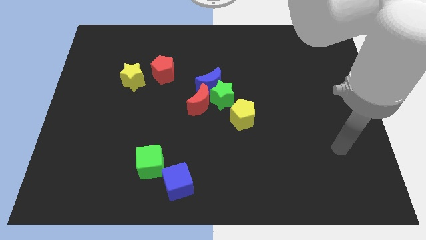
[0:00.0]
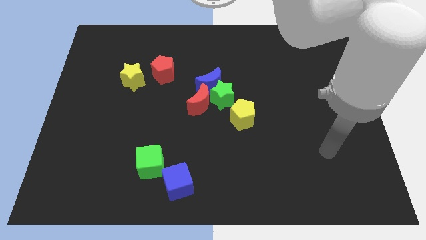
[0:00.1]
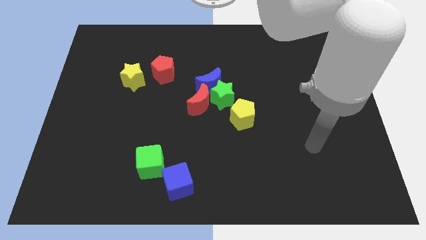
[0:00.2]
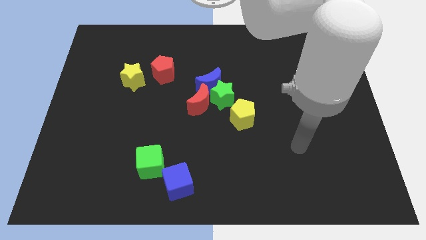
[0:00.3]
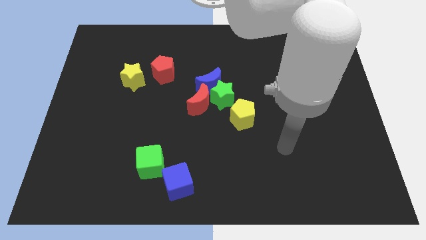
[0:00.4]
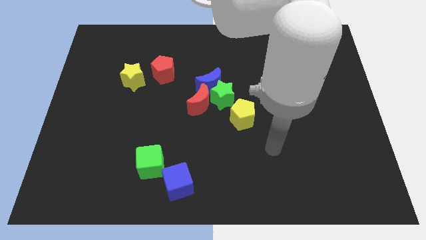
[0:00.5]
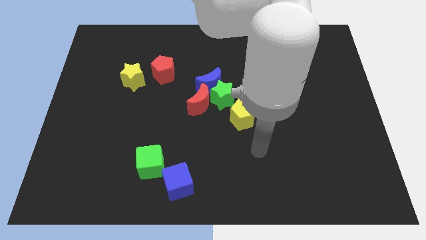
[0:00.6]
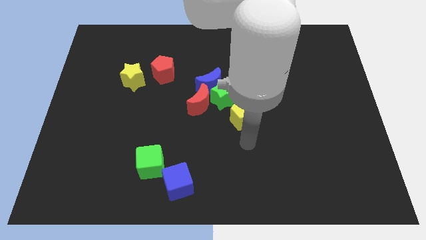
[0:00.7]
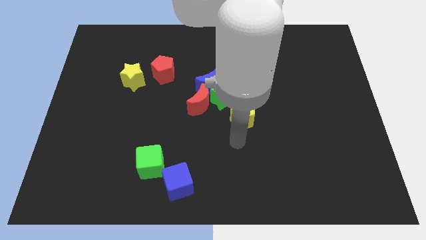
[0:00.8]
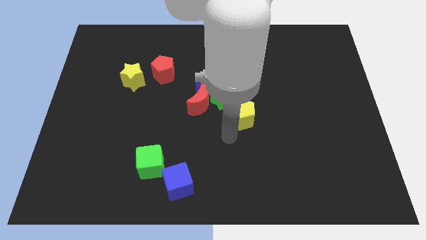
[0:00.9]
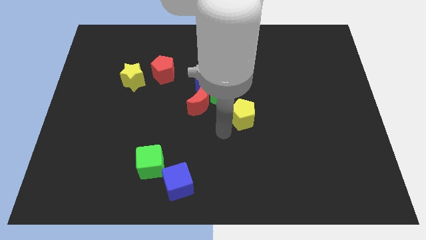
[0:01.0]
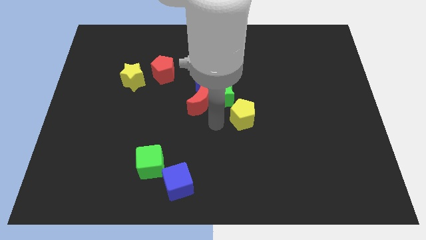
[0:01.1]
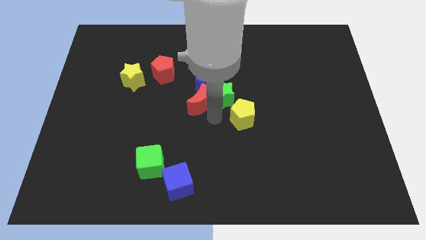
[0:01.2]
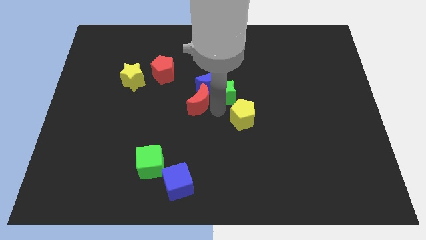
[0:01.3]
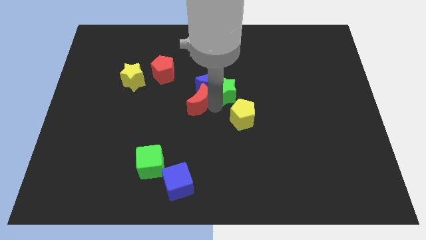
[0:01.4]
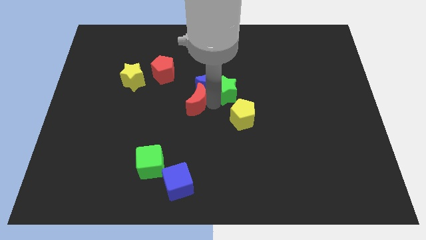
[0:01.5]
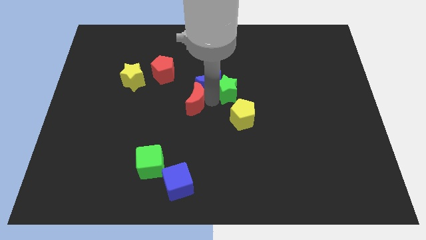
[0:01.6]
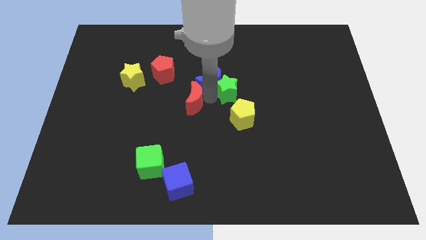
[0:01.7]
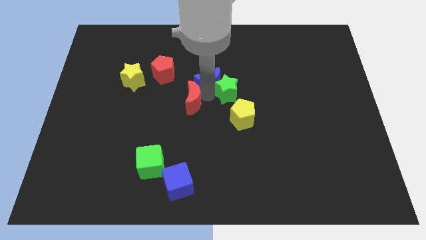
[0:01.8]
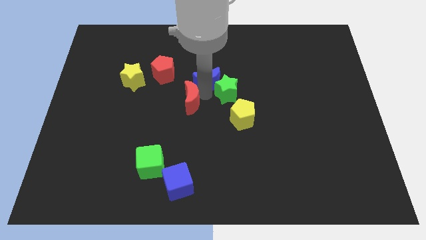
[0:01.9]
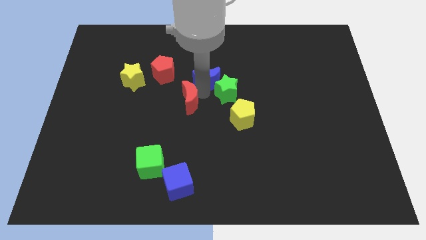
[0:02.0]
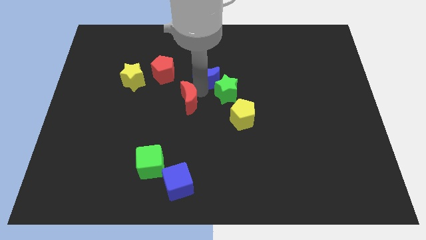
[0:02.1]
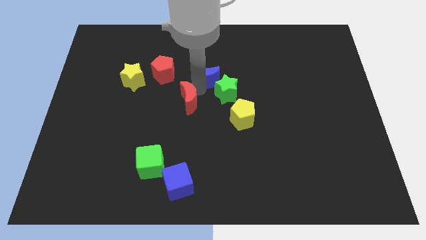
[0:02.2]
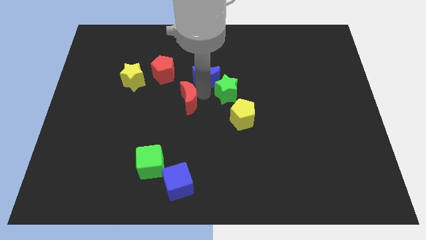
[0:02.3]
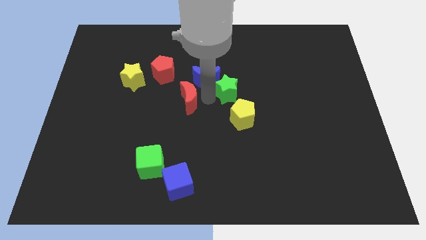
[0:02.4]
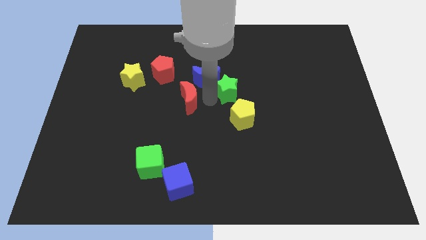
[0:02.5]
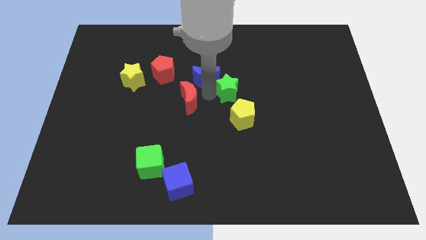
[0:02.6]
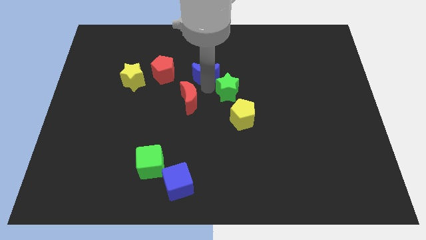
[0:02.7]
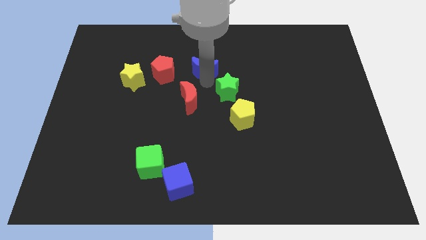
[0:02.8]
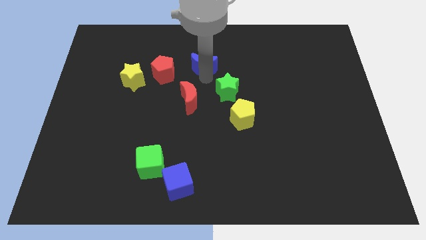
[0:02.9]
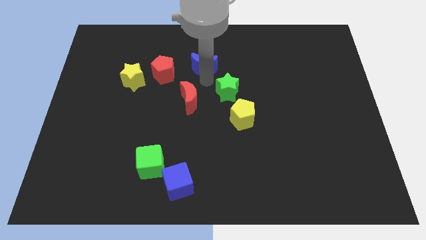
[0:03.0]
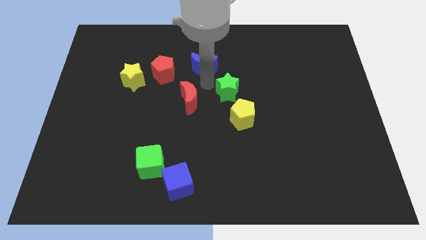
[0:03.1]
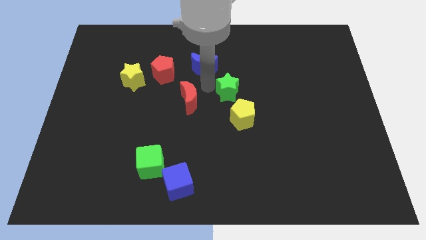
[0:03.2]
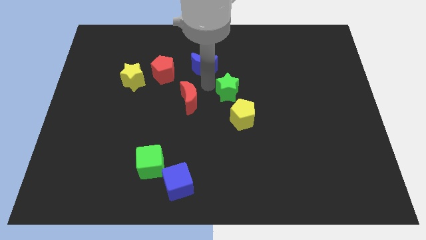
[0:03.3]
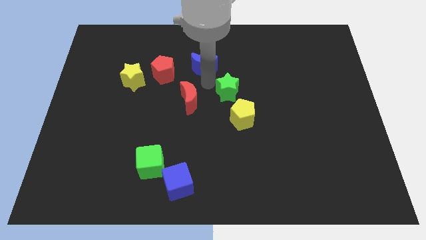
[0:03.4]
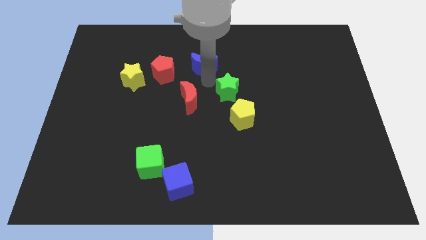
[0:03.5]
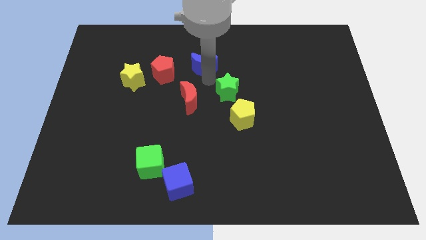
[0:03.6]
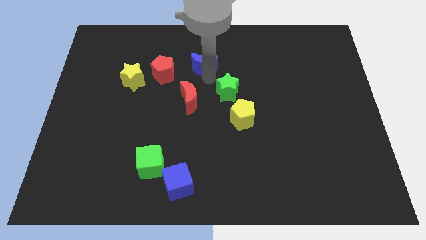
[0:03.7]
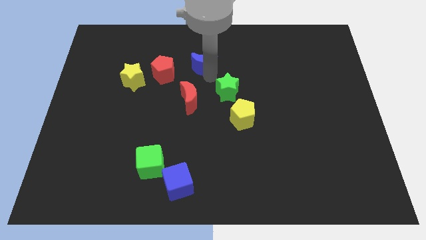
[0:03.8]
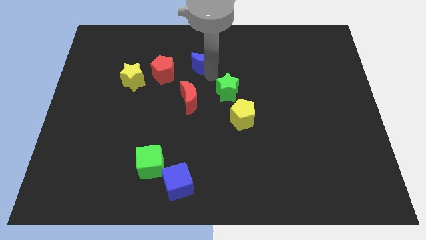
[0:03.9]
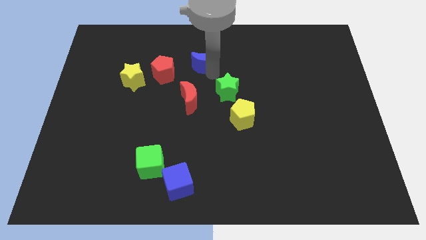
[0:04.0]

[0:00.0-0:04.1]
pull the blue moon apart from the green star and red moon

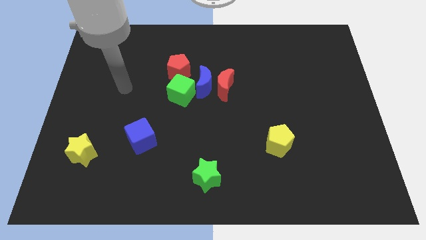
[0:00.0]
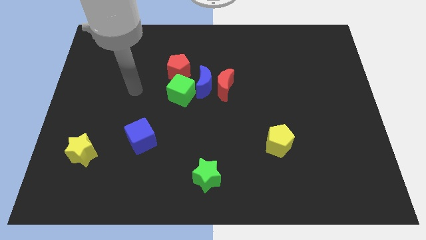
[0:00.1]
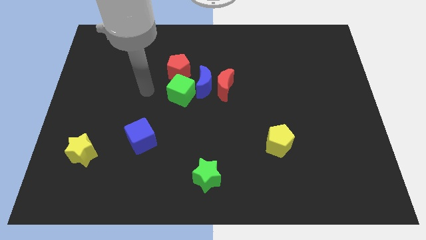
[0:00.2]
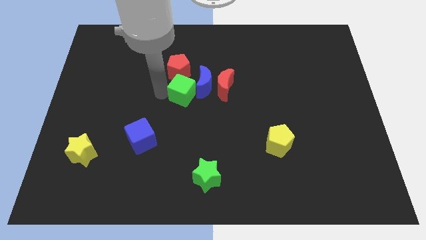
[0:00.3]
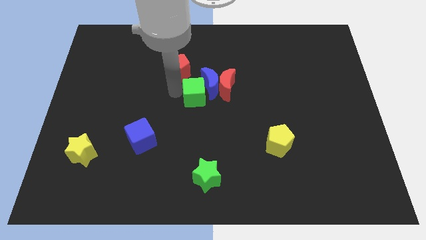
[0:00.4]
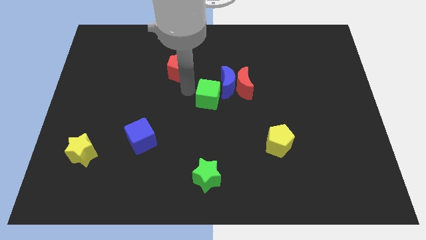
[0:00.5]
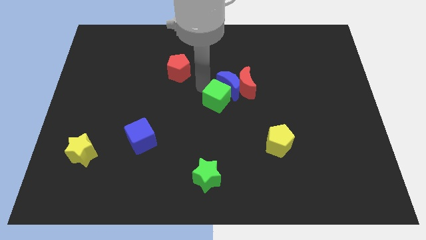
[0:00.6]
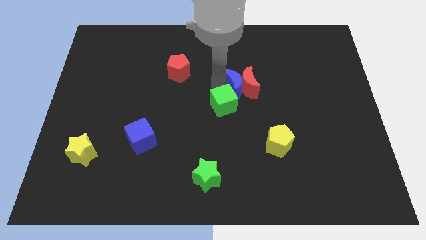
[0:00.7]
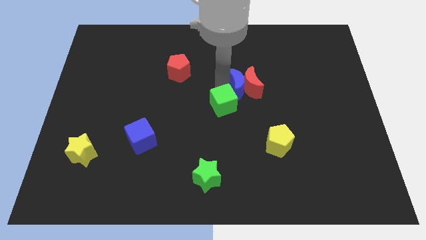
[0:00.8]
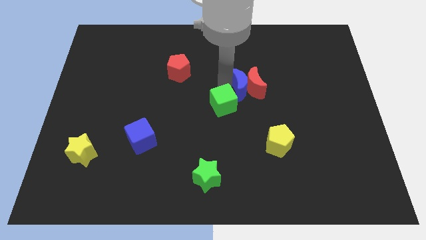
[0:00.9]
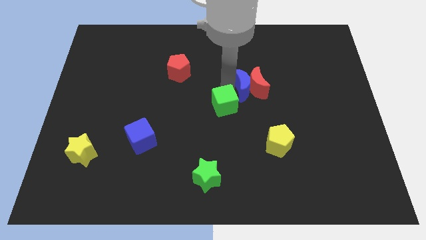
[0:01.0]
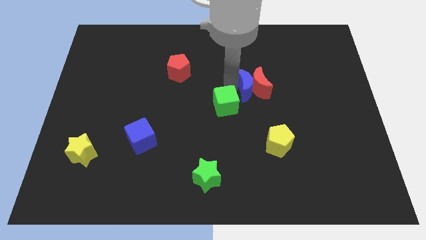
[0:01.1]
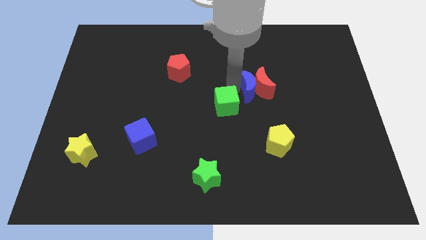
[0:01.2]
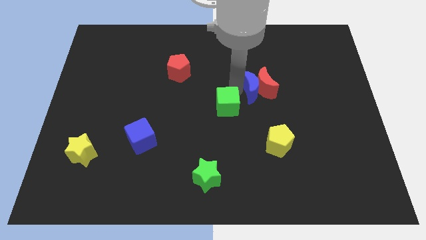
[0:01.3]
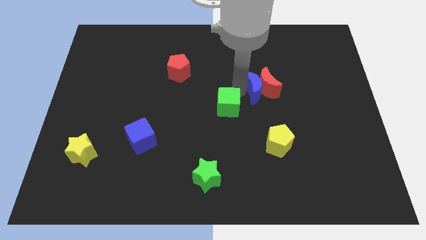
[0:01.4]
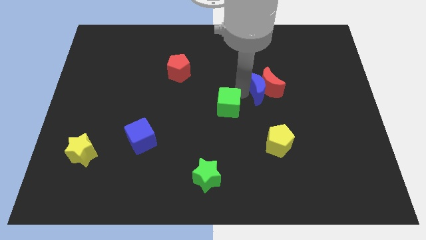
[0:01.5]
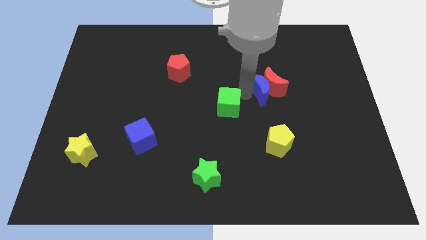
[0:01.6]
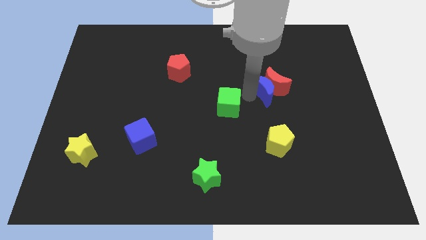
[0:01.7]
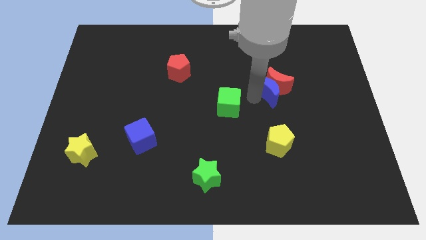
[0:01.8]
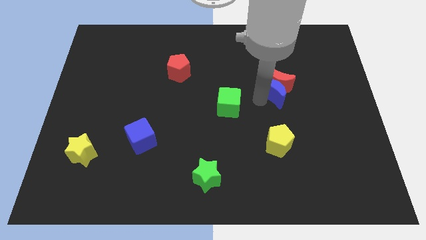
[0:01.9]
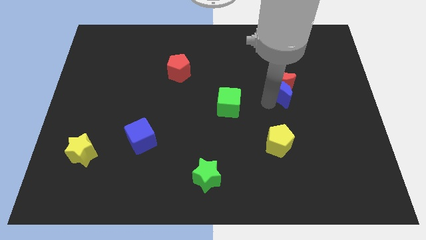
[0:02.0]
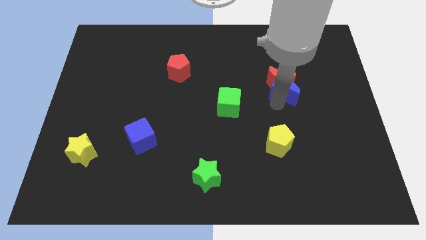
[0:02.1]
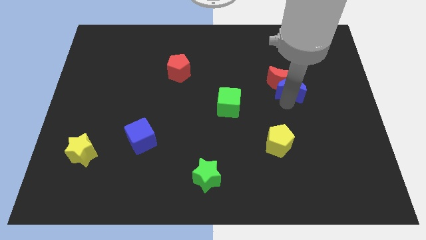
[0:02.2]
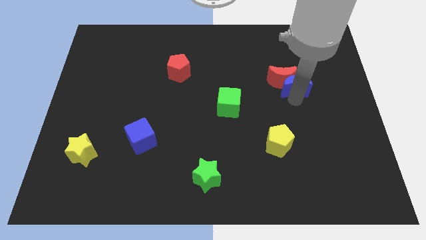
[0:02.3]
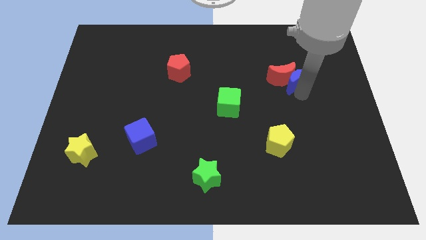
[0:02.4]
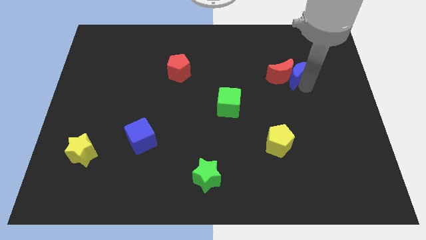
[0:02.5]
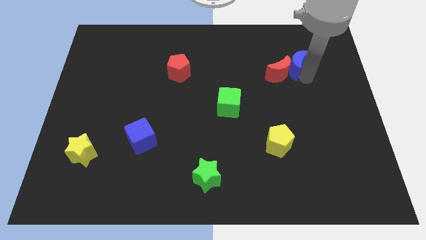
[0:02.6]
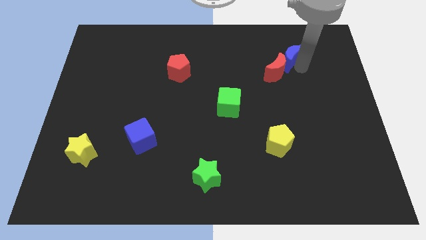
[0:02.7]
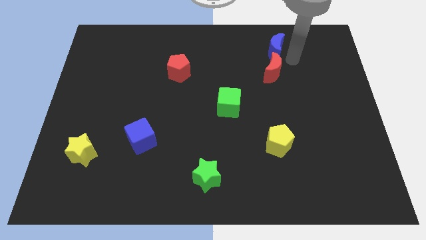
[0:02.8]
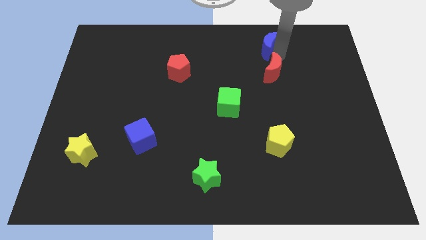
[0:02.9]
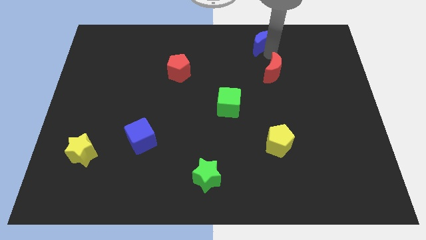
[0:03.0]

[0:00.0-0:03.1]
move the red moon away from the blue moon

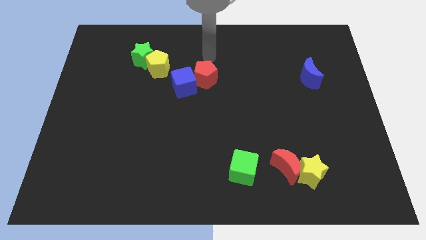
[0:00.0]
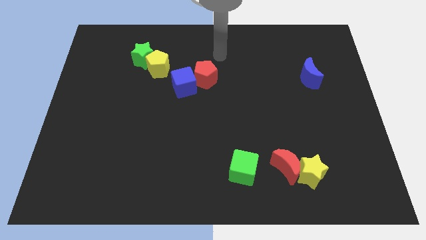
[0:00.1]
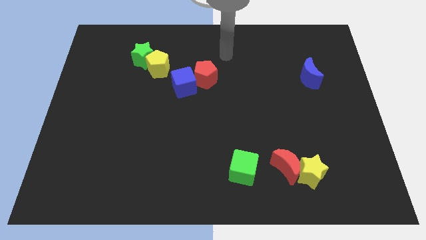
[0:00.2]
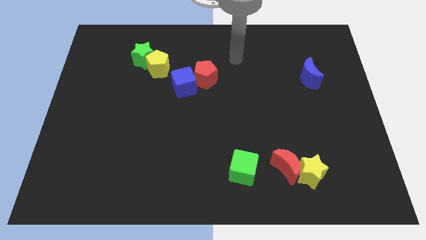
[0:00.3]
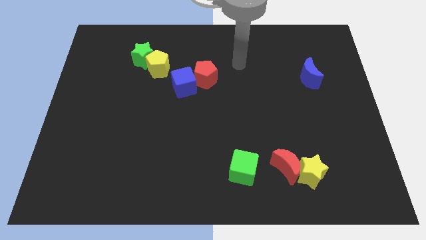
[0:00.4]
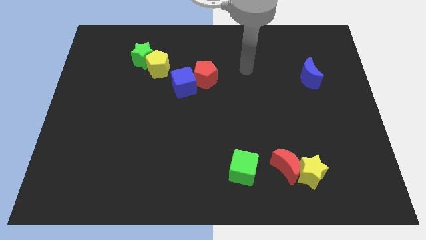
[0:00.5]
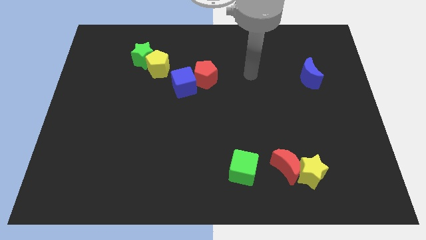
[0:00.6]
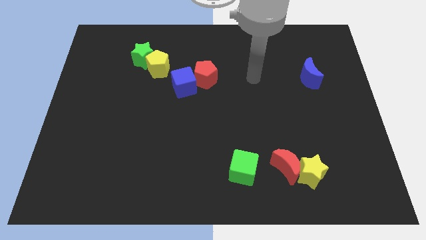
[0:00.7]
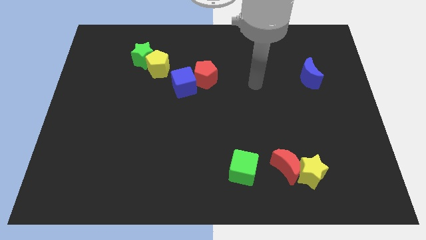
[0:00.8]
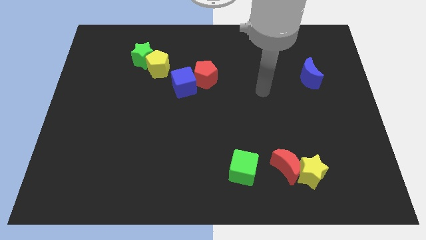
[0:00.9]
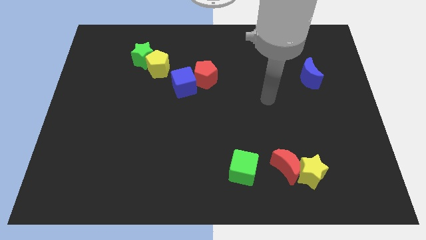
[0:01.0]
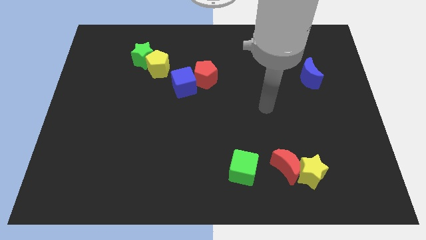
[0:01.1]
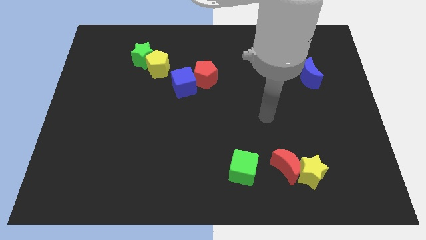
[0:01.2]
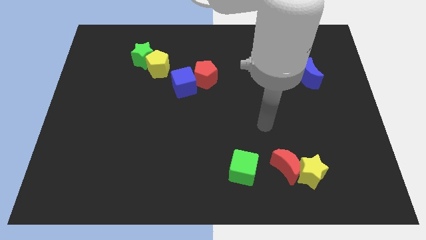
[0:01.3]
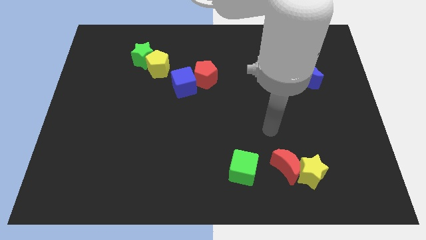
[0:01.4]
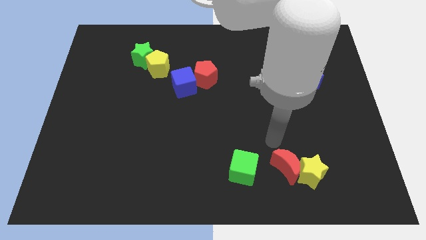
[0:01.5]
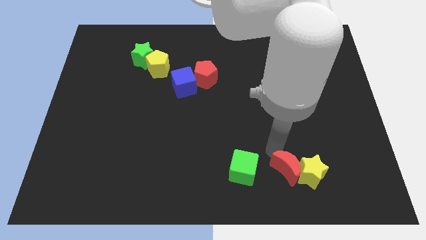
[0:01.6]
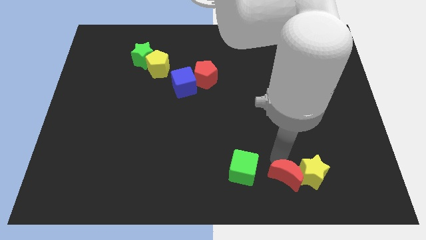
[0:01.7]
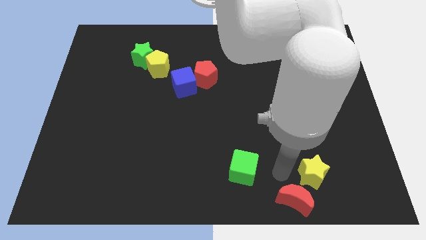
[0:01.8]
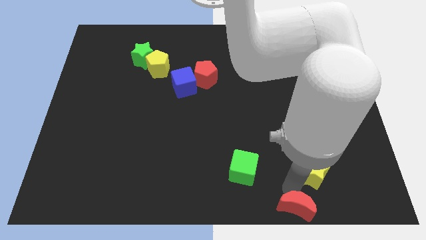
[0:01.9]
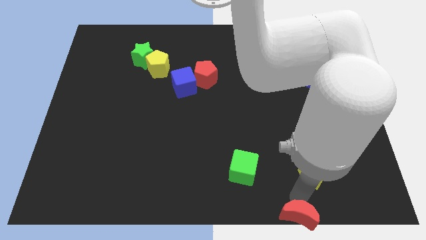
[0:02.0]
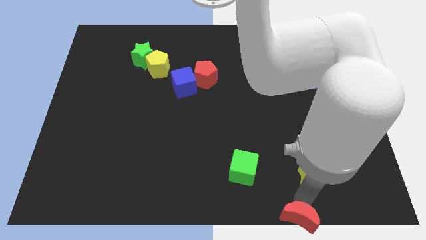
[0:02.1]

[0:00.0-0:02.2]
pull the yellow star apart from the red moon
